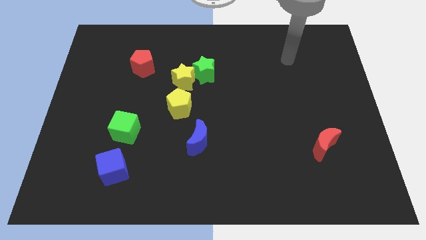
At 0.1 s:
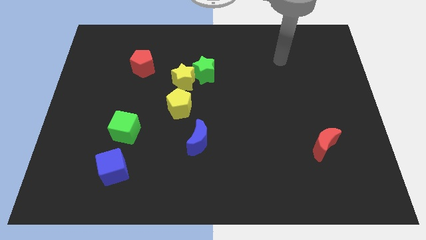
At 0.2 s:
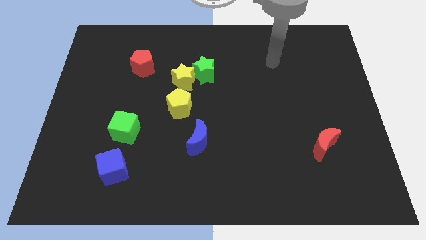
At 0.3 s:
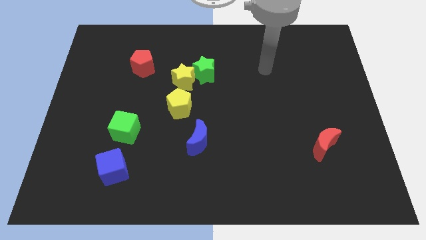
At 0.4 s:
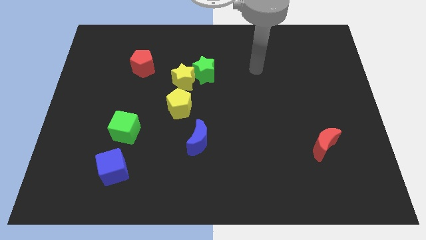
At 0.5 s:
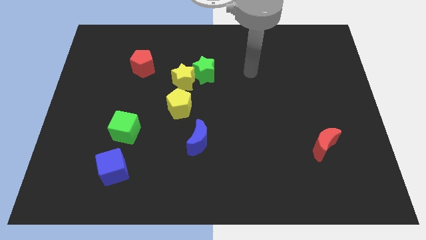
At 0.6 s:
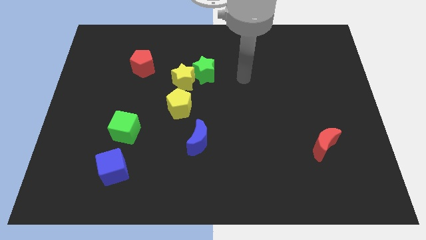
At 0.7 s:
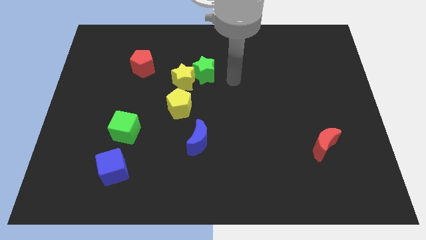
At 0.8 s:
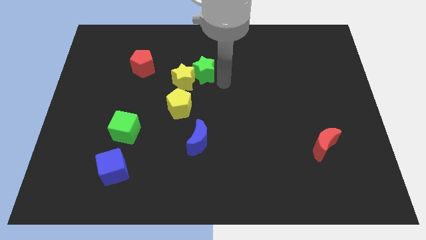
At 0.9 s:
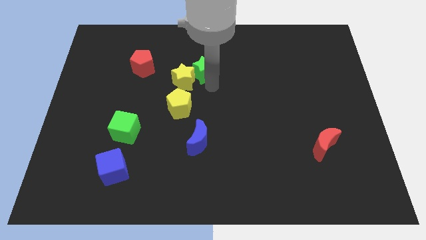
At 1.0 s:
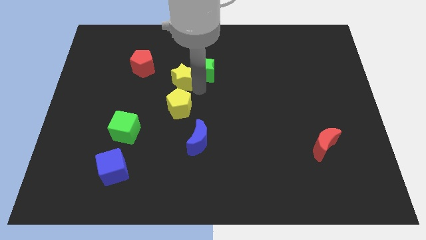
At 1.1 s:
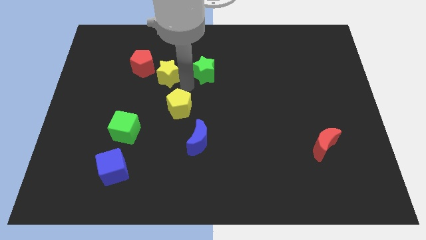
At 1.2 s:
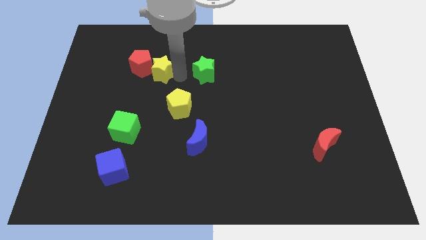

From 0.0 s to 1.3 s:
move the green star away from the yellow star

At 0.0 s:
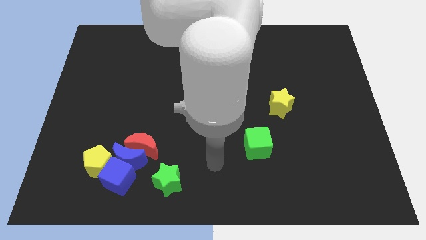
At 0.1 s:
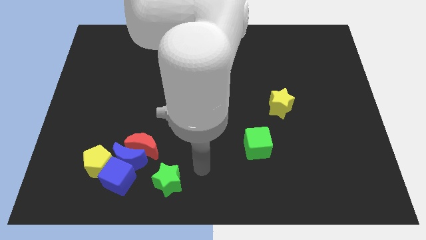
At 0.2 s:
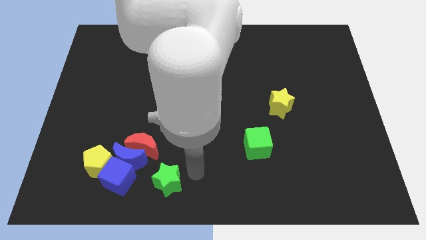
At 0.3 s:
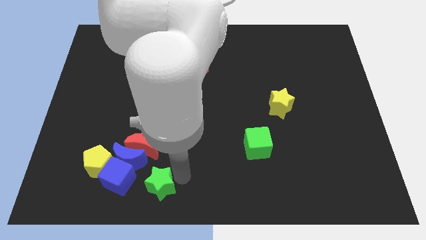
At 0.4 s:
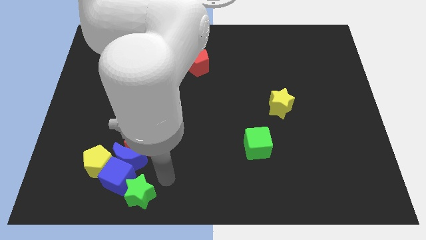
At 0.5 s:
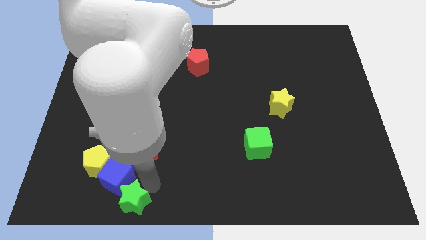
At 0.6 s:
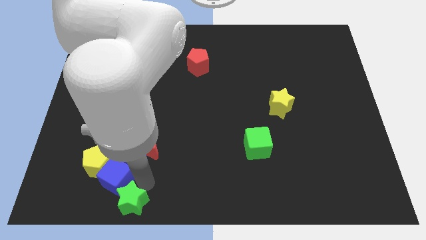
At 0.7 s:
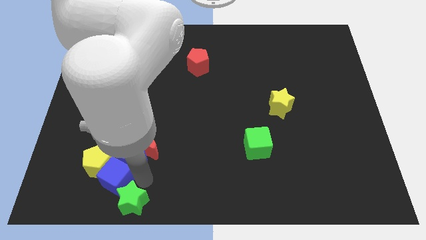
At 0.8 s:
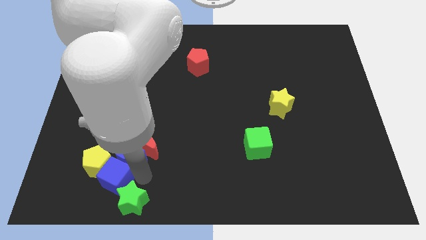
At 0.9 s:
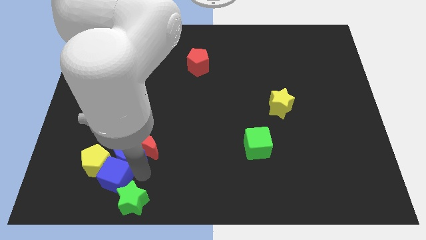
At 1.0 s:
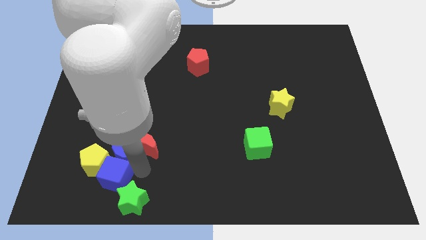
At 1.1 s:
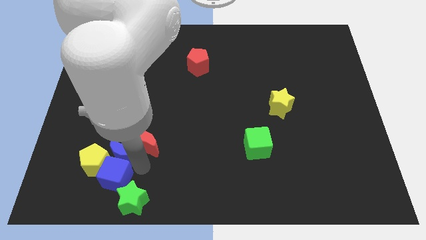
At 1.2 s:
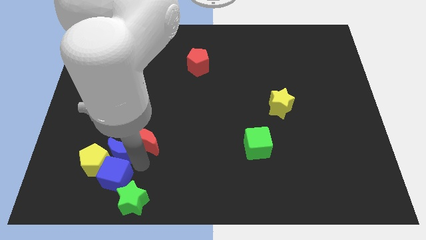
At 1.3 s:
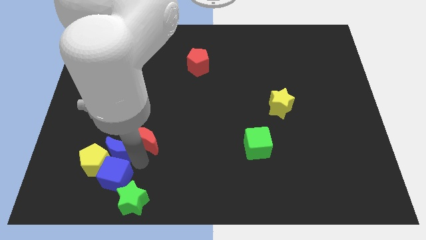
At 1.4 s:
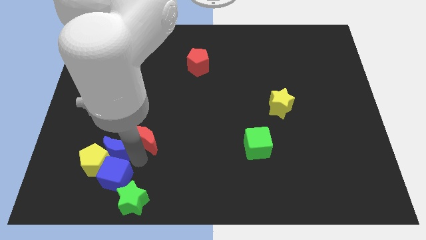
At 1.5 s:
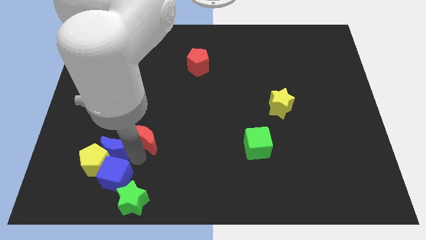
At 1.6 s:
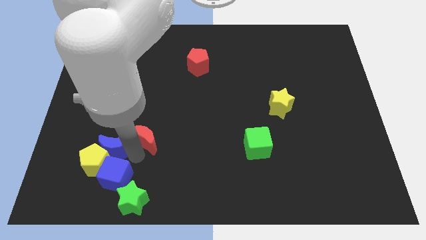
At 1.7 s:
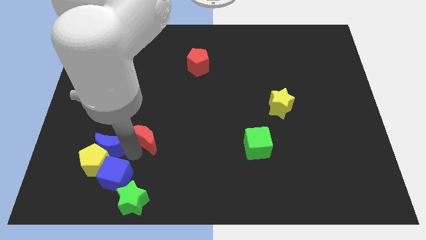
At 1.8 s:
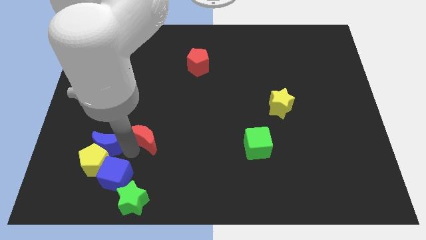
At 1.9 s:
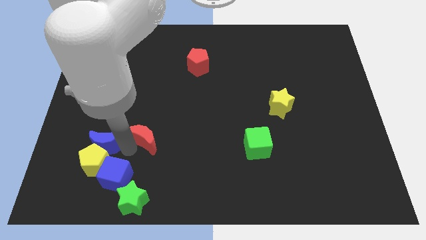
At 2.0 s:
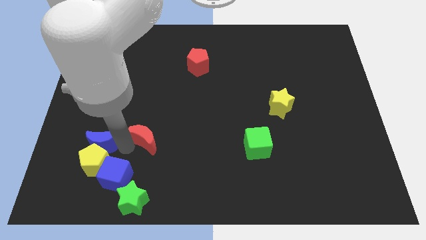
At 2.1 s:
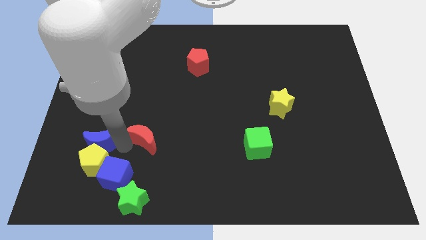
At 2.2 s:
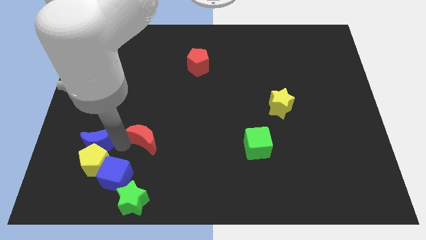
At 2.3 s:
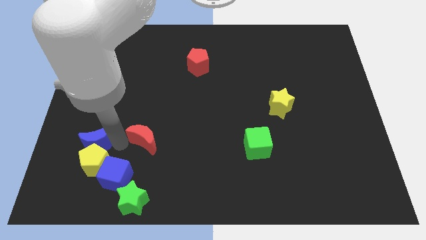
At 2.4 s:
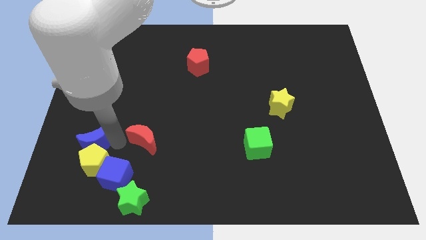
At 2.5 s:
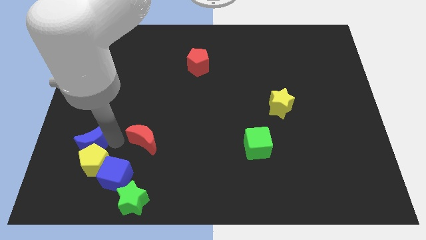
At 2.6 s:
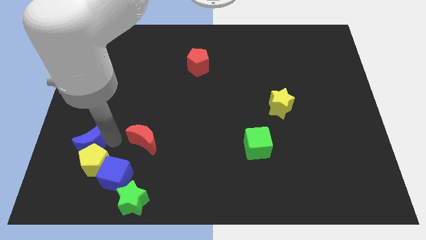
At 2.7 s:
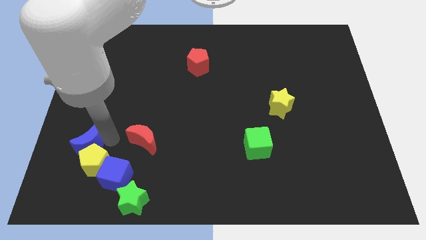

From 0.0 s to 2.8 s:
separate the blue moon from the clump

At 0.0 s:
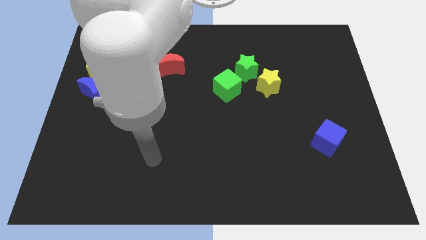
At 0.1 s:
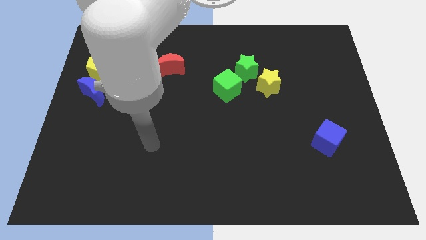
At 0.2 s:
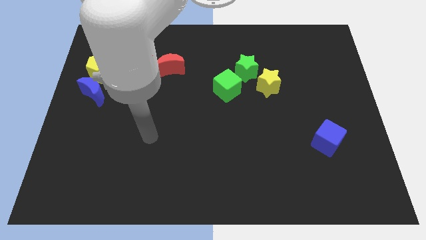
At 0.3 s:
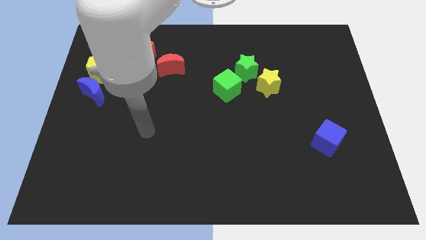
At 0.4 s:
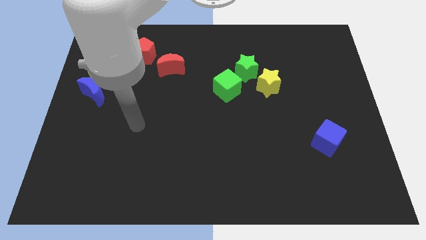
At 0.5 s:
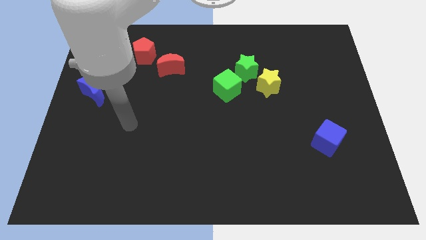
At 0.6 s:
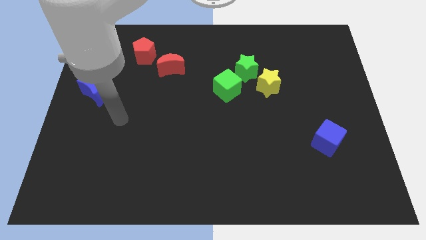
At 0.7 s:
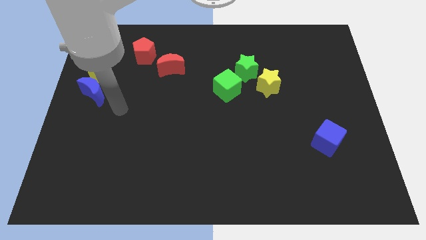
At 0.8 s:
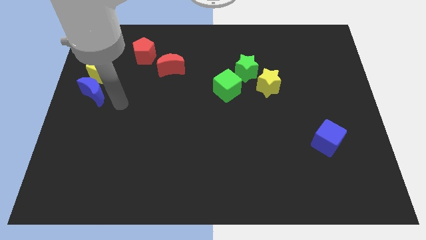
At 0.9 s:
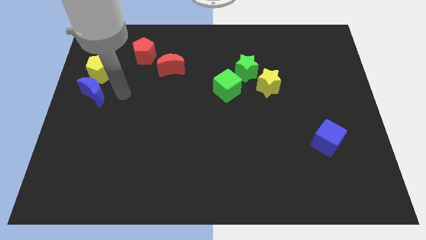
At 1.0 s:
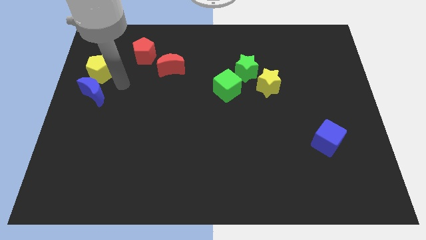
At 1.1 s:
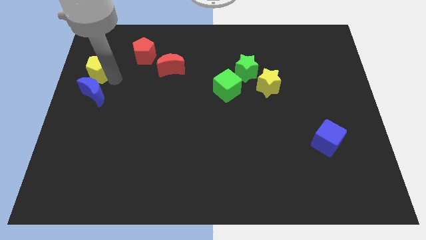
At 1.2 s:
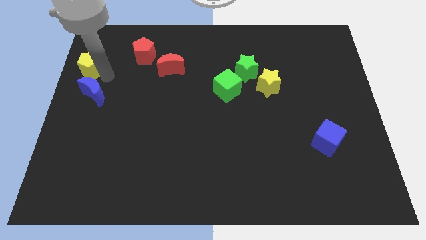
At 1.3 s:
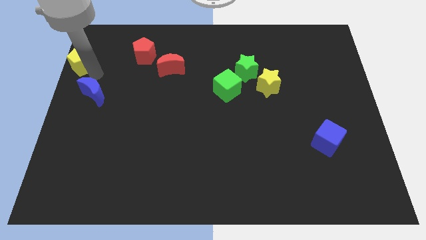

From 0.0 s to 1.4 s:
separate the blue moon from the yellow pentagon

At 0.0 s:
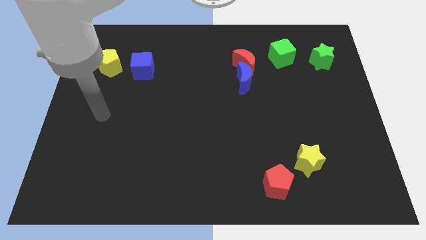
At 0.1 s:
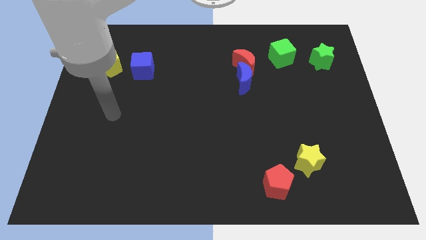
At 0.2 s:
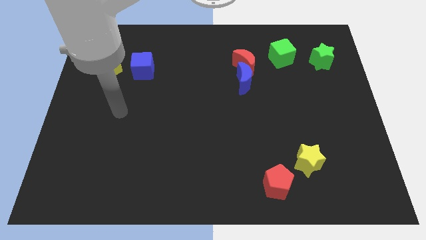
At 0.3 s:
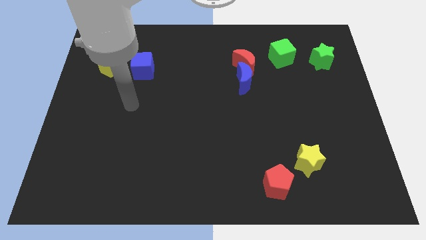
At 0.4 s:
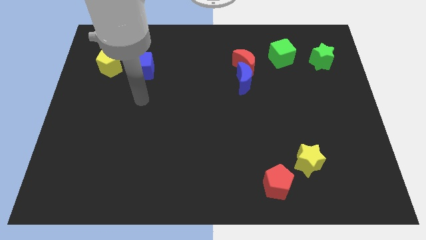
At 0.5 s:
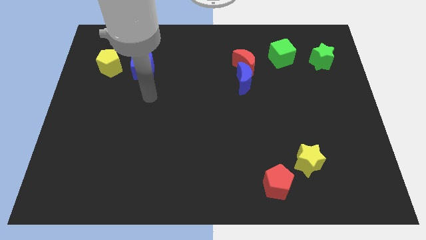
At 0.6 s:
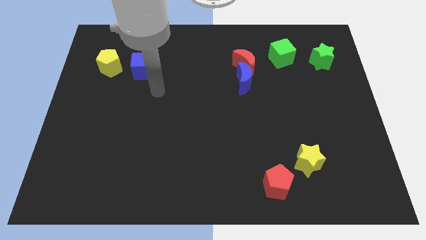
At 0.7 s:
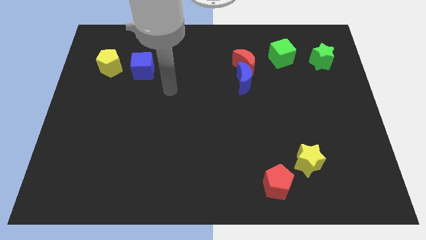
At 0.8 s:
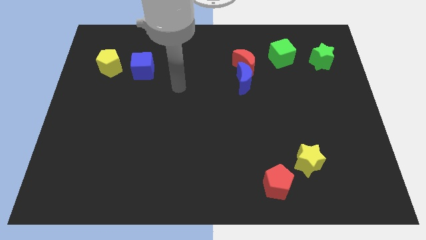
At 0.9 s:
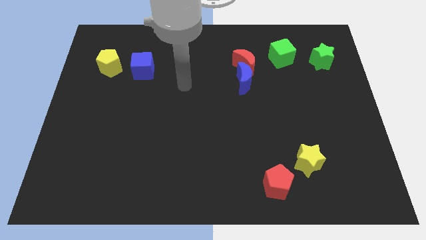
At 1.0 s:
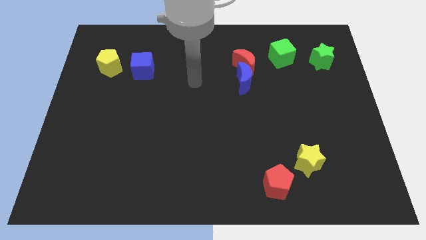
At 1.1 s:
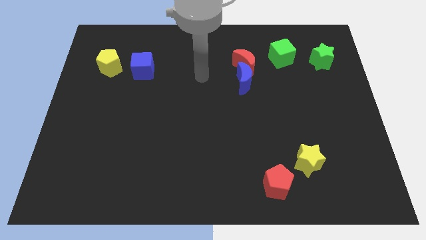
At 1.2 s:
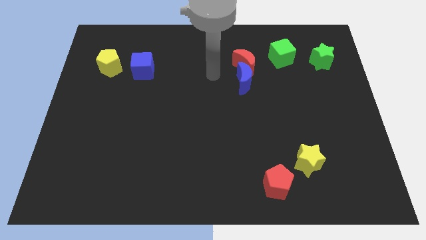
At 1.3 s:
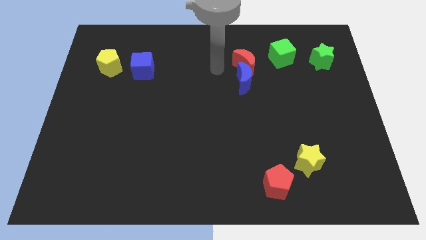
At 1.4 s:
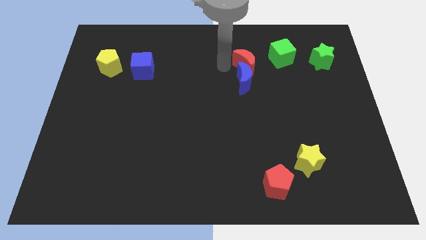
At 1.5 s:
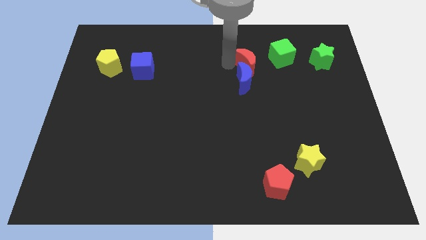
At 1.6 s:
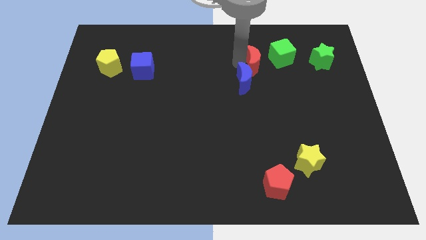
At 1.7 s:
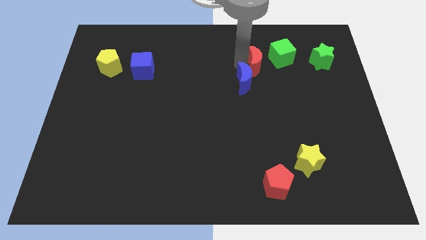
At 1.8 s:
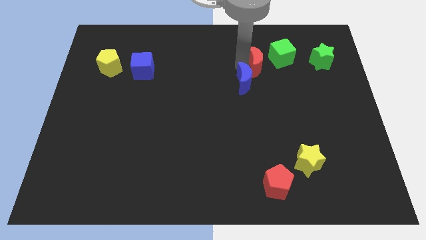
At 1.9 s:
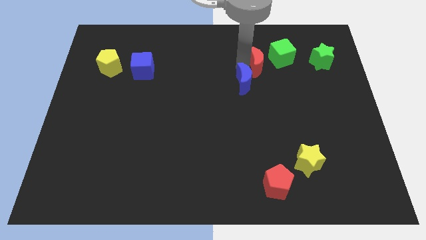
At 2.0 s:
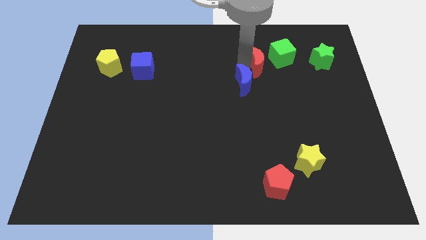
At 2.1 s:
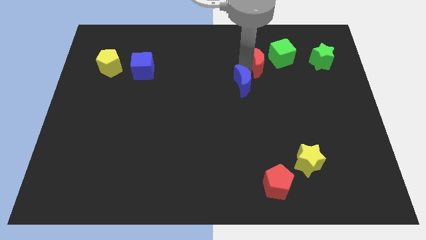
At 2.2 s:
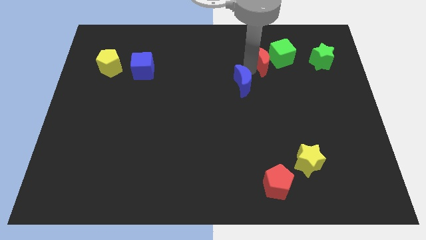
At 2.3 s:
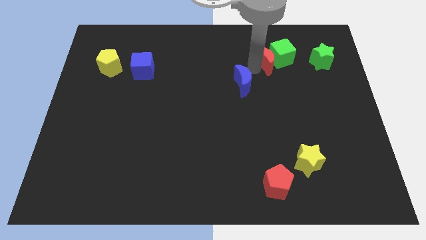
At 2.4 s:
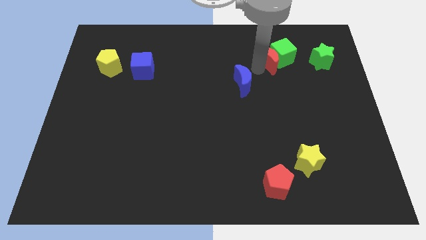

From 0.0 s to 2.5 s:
pull the blue moon apart from the red moon

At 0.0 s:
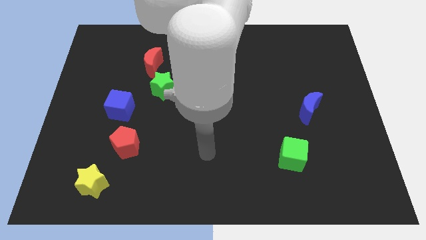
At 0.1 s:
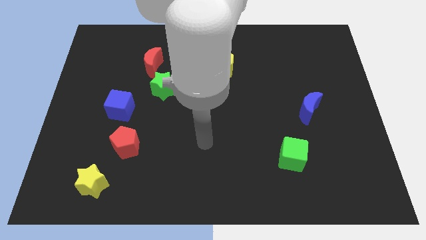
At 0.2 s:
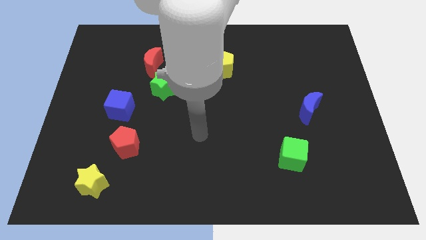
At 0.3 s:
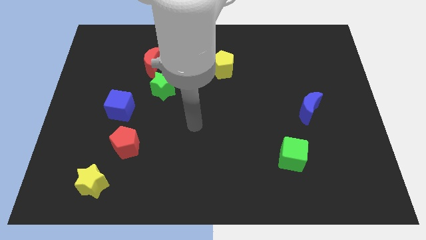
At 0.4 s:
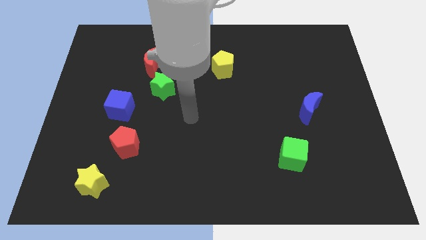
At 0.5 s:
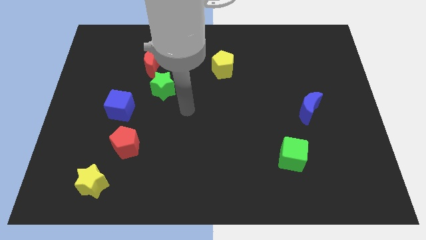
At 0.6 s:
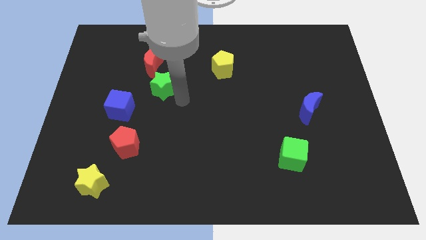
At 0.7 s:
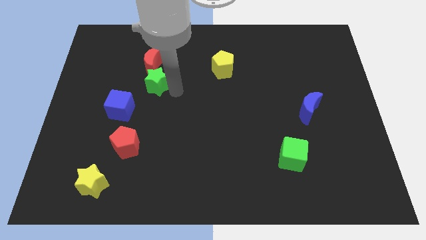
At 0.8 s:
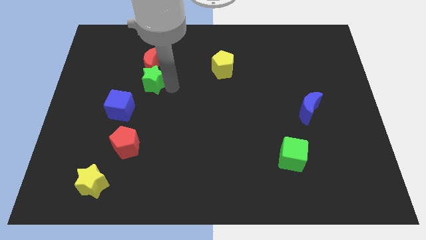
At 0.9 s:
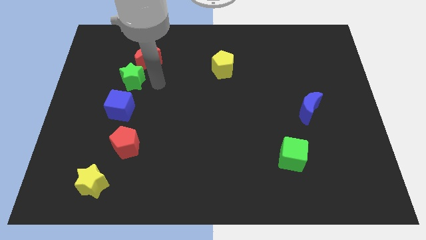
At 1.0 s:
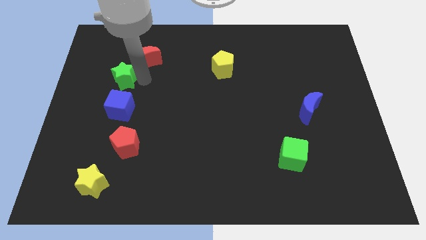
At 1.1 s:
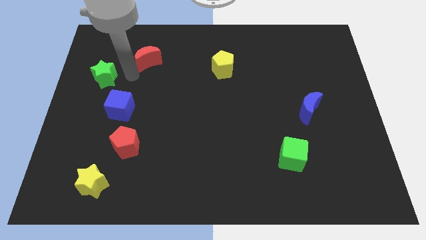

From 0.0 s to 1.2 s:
pull the red moon apart from the green star
